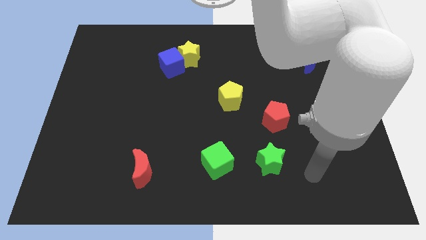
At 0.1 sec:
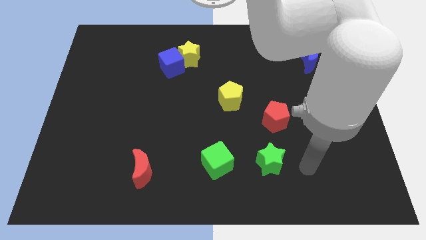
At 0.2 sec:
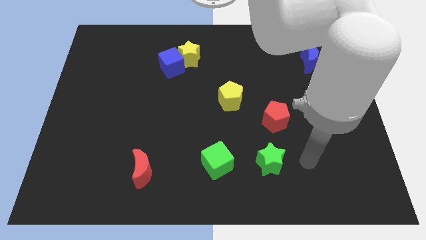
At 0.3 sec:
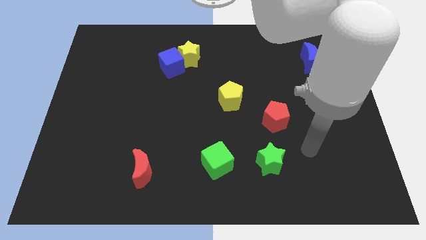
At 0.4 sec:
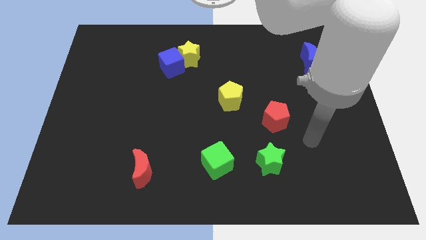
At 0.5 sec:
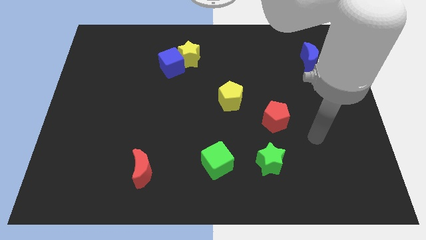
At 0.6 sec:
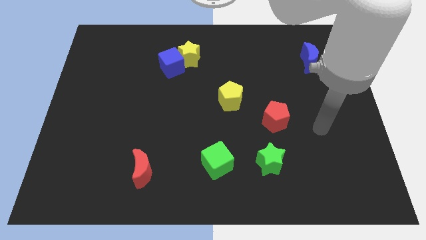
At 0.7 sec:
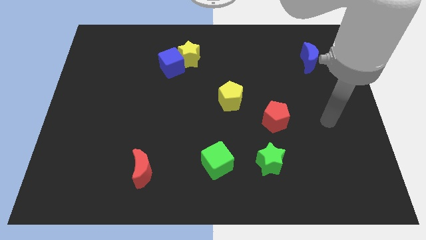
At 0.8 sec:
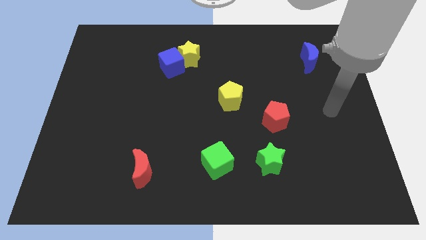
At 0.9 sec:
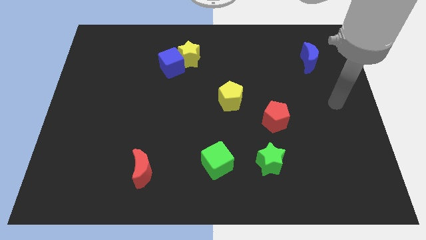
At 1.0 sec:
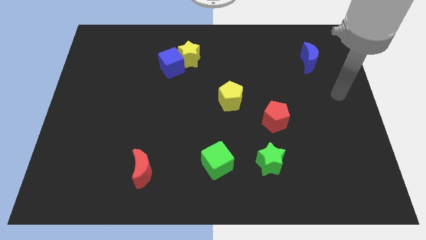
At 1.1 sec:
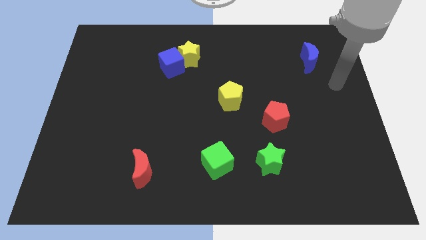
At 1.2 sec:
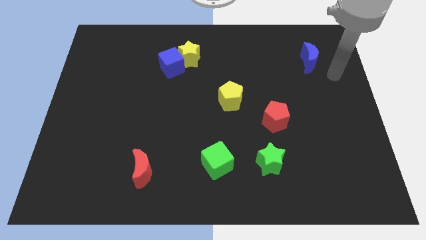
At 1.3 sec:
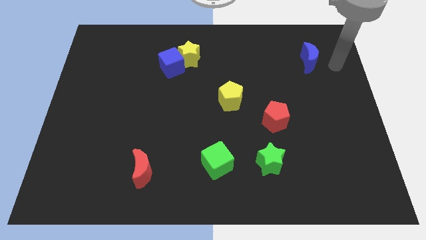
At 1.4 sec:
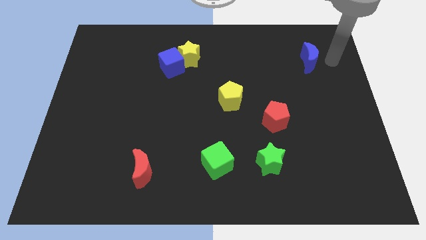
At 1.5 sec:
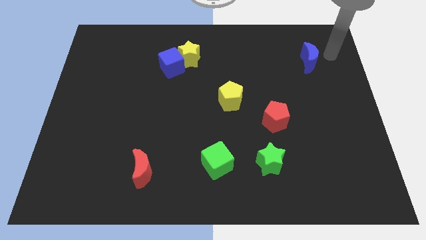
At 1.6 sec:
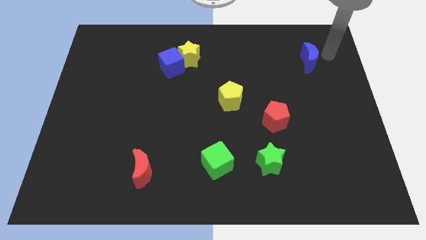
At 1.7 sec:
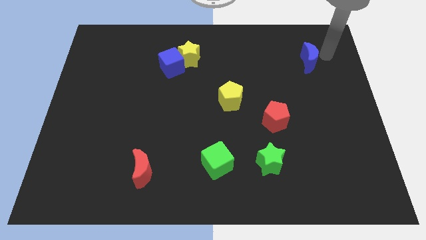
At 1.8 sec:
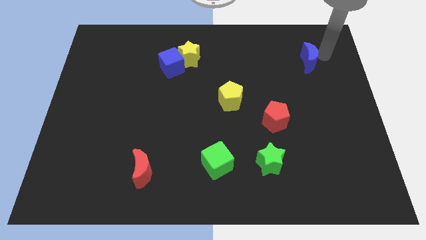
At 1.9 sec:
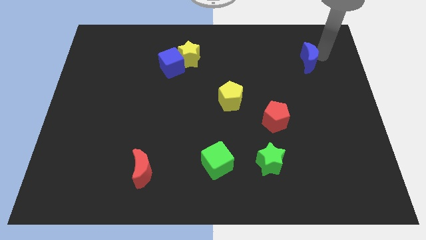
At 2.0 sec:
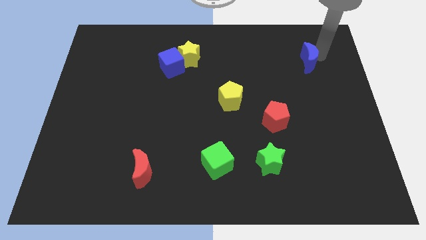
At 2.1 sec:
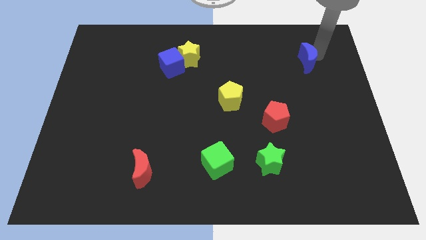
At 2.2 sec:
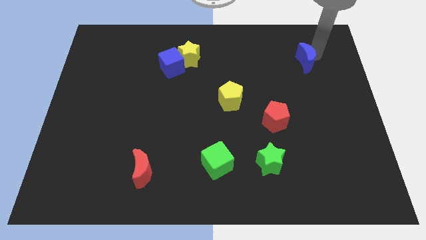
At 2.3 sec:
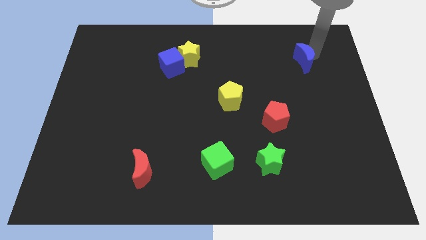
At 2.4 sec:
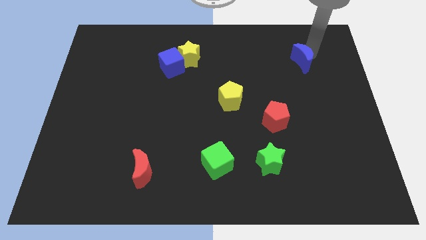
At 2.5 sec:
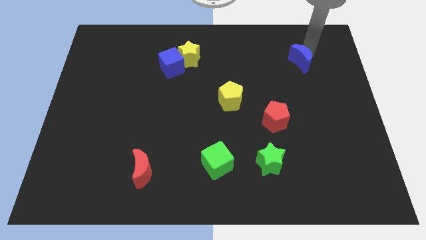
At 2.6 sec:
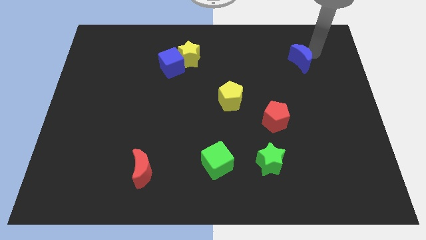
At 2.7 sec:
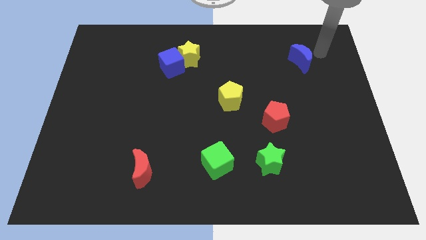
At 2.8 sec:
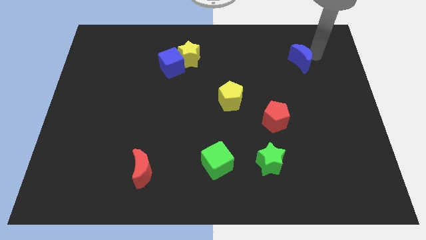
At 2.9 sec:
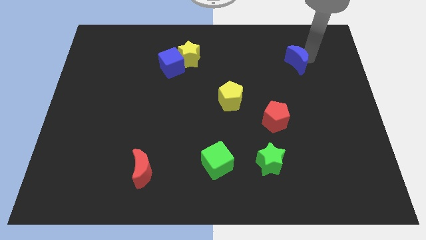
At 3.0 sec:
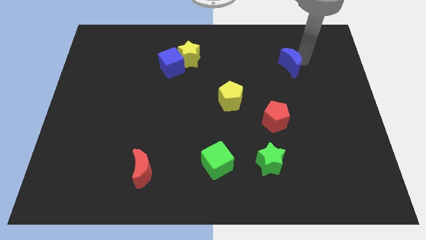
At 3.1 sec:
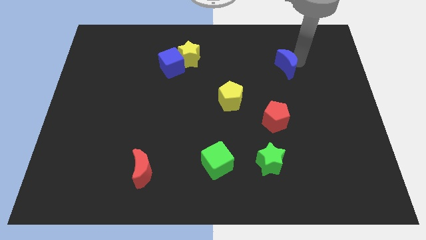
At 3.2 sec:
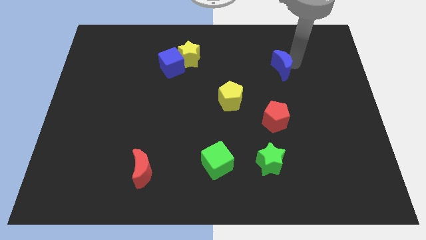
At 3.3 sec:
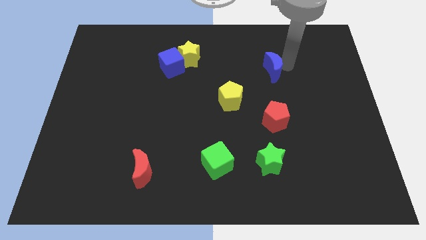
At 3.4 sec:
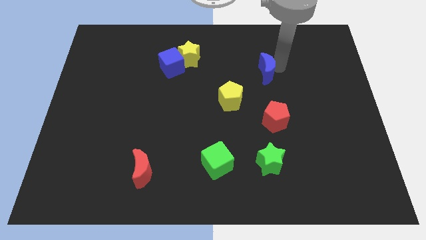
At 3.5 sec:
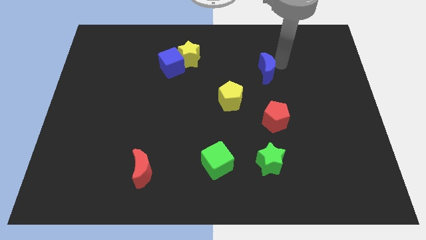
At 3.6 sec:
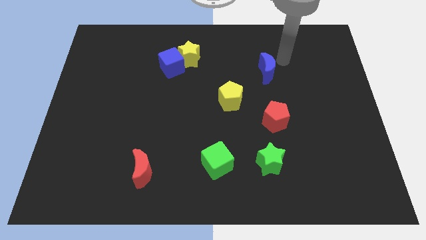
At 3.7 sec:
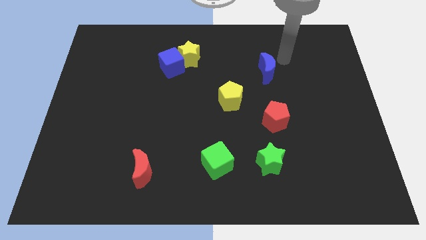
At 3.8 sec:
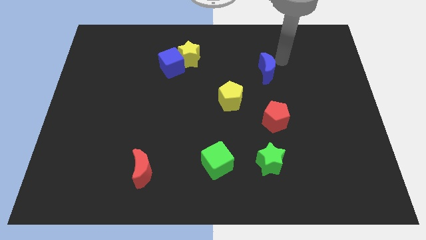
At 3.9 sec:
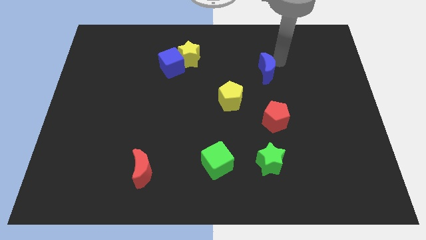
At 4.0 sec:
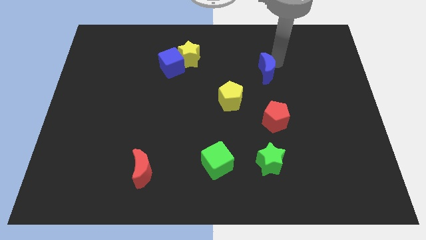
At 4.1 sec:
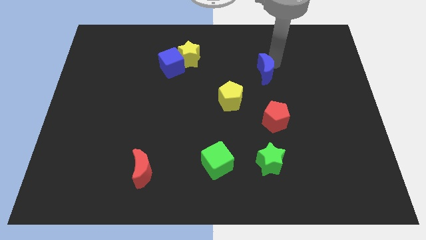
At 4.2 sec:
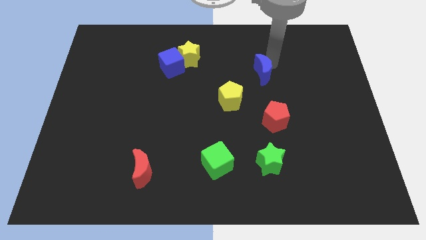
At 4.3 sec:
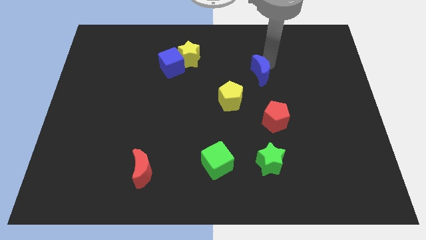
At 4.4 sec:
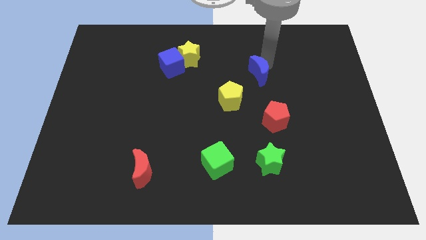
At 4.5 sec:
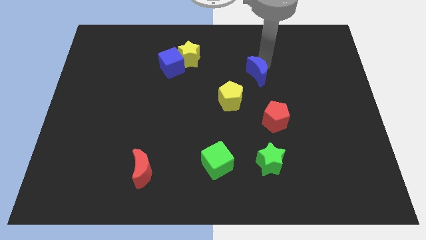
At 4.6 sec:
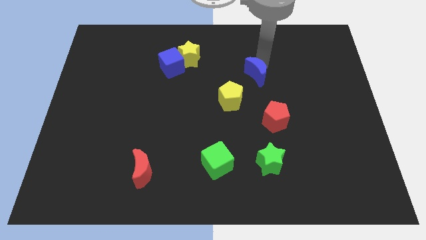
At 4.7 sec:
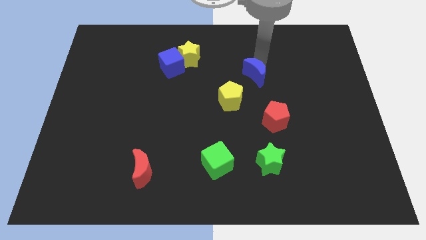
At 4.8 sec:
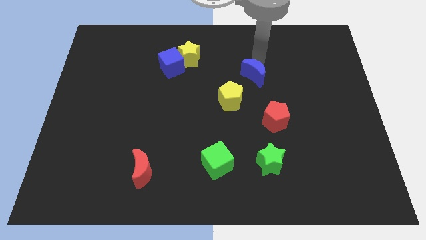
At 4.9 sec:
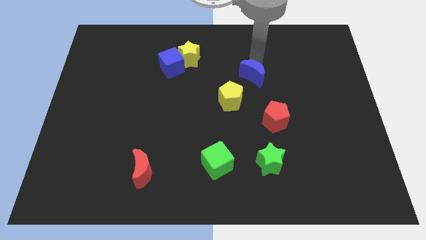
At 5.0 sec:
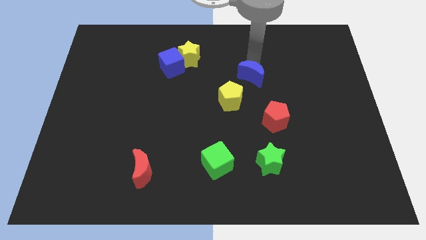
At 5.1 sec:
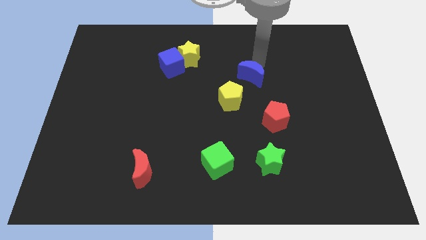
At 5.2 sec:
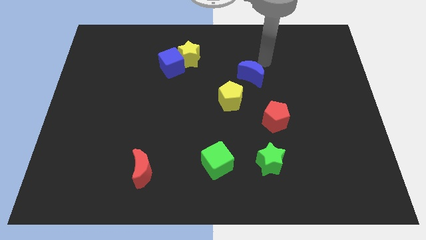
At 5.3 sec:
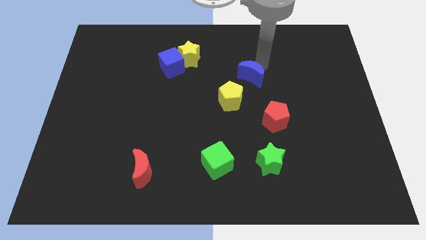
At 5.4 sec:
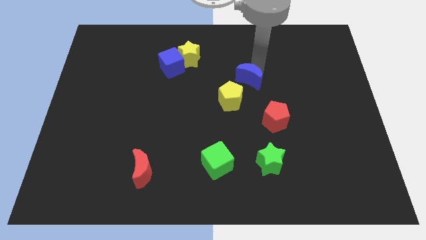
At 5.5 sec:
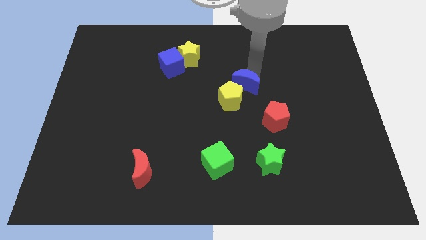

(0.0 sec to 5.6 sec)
push the blue moon next to the yellow pentagon

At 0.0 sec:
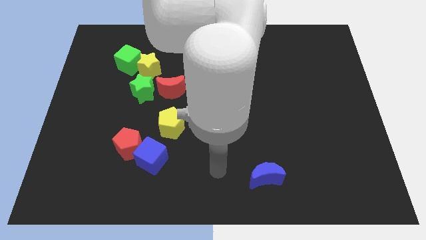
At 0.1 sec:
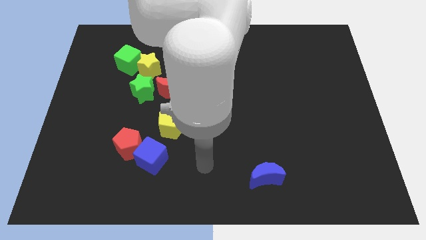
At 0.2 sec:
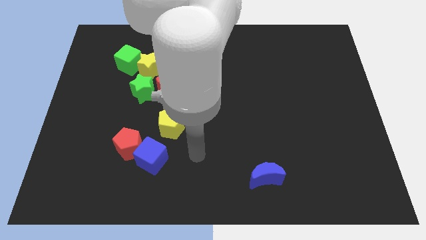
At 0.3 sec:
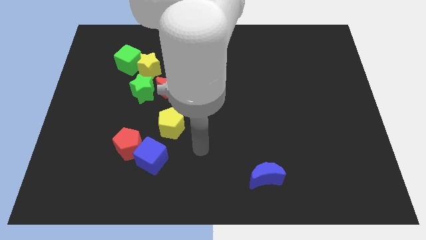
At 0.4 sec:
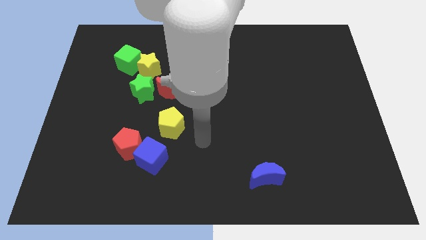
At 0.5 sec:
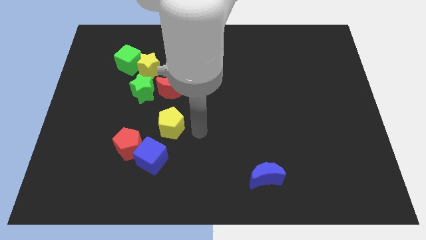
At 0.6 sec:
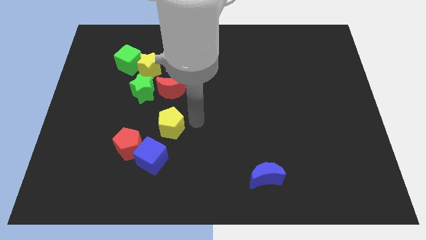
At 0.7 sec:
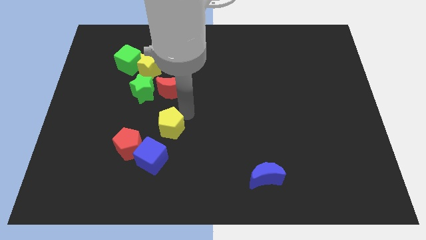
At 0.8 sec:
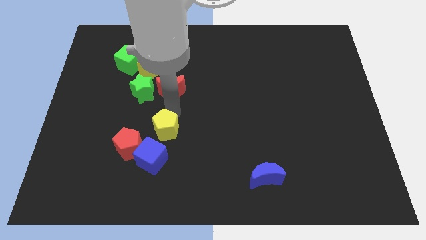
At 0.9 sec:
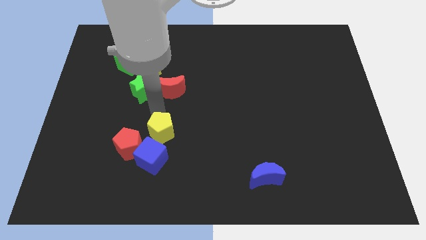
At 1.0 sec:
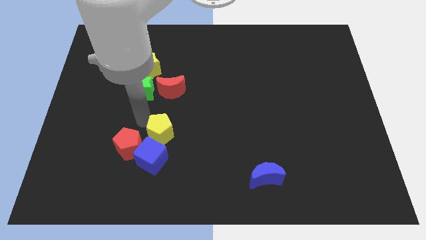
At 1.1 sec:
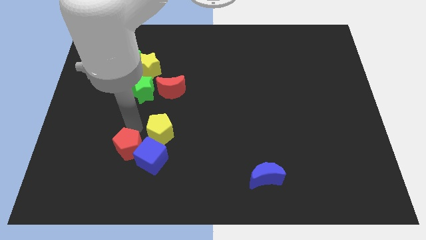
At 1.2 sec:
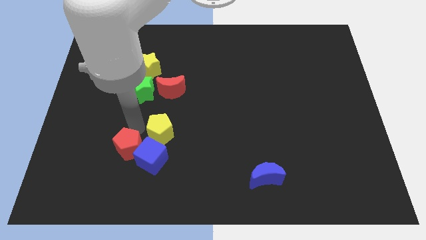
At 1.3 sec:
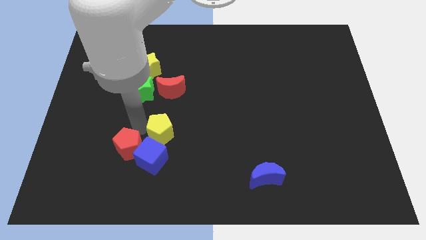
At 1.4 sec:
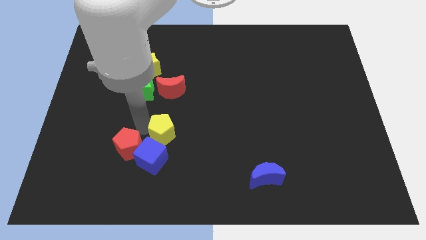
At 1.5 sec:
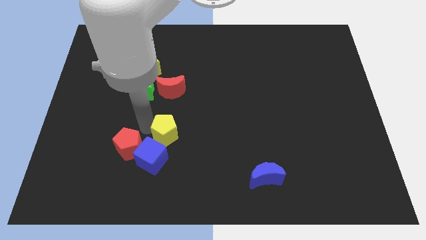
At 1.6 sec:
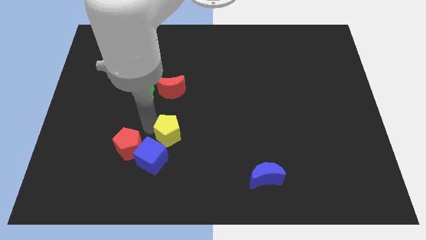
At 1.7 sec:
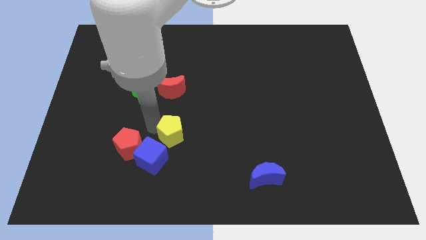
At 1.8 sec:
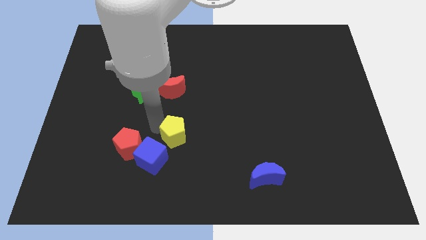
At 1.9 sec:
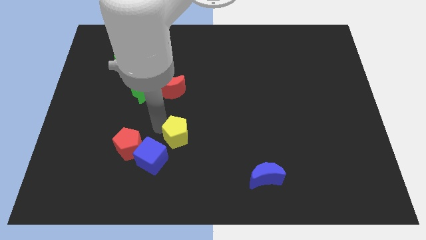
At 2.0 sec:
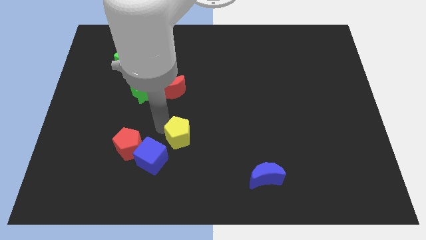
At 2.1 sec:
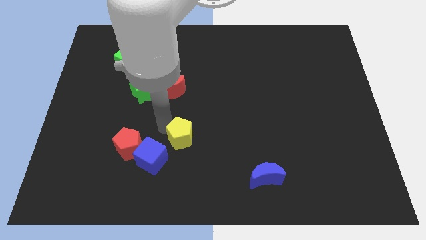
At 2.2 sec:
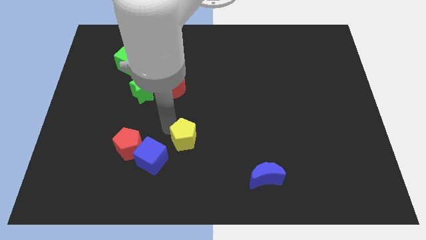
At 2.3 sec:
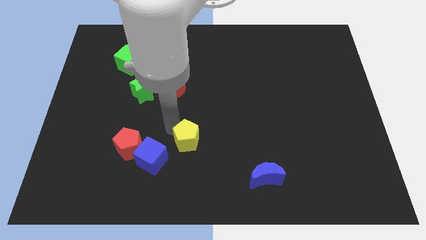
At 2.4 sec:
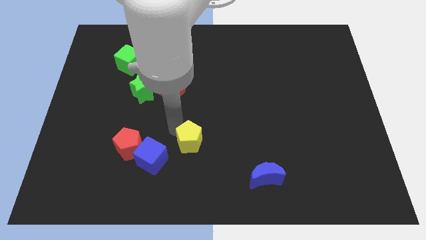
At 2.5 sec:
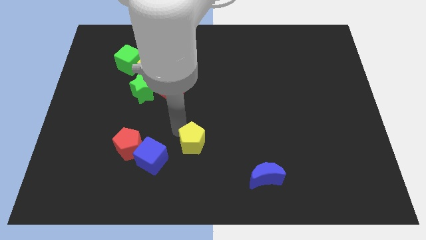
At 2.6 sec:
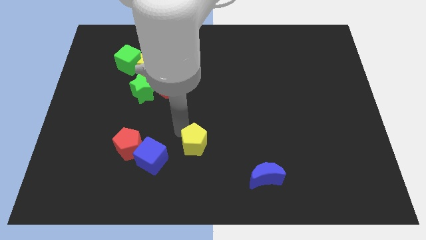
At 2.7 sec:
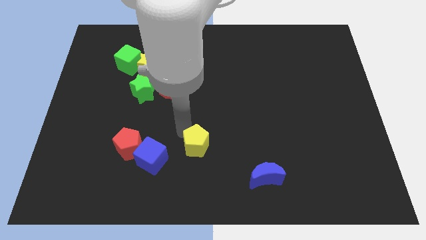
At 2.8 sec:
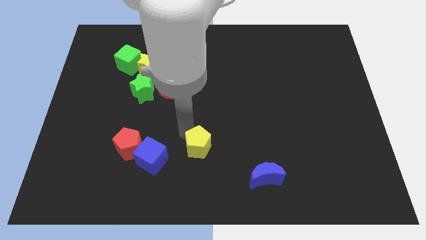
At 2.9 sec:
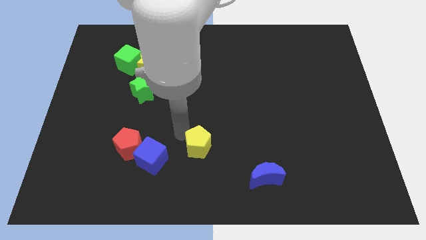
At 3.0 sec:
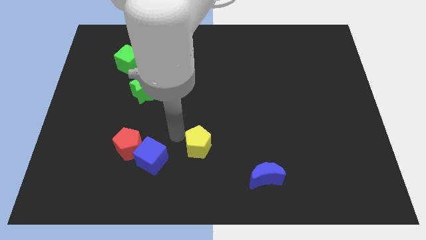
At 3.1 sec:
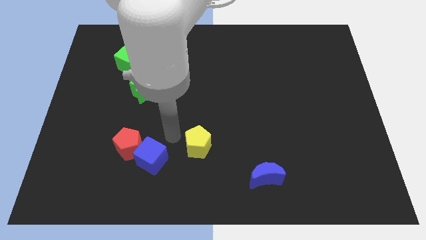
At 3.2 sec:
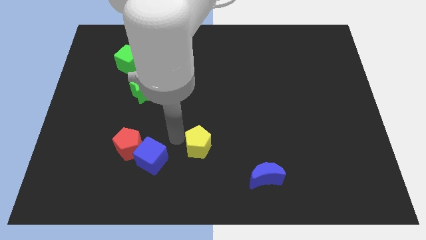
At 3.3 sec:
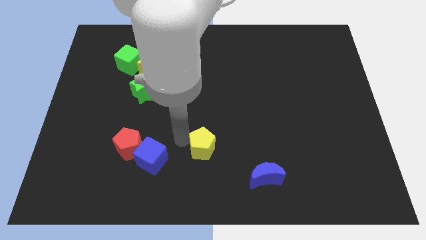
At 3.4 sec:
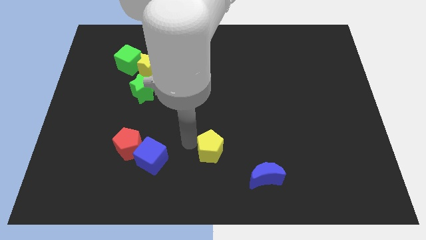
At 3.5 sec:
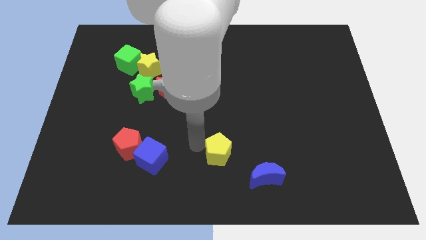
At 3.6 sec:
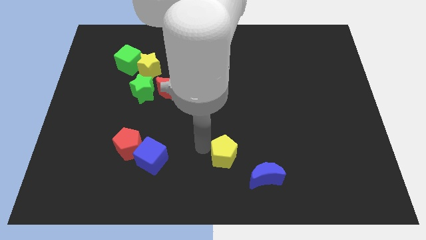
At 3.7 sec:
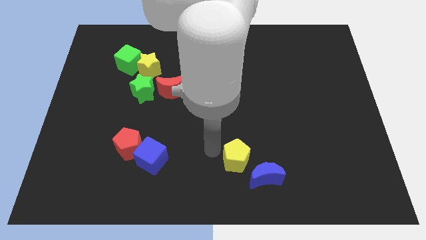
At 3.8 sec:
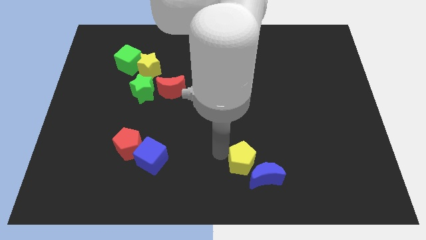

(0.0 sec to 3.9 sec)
slide the yellow pentagon to the blue moon
